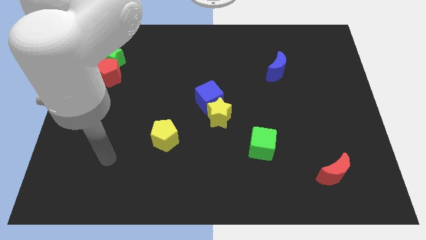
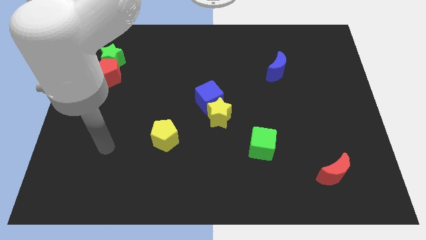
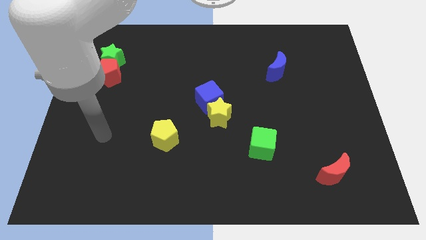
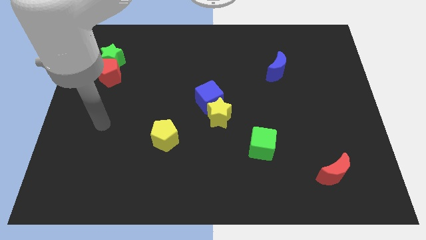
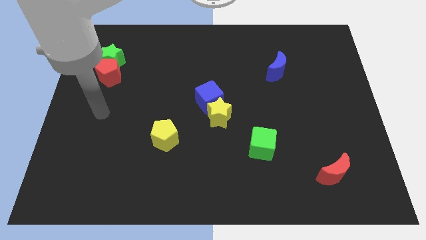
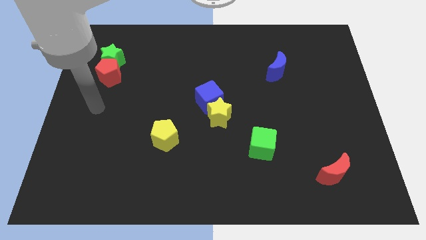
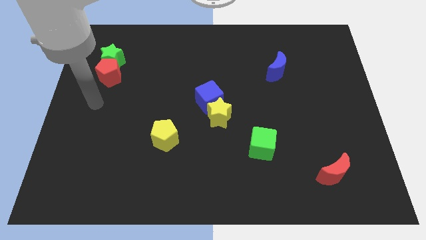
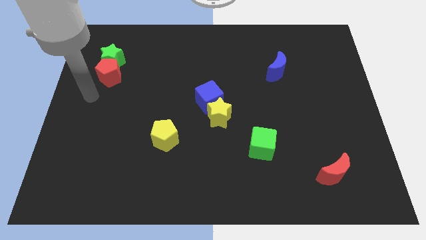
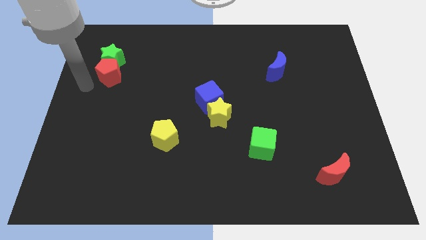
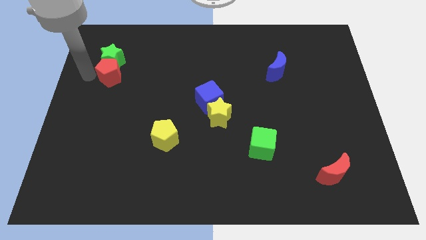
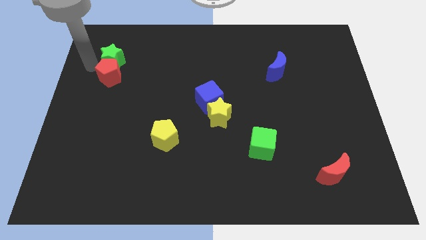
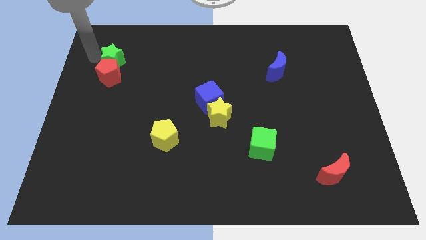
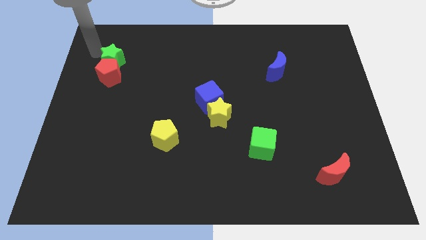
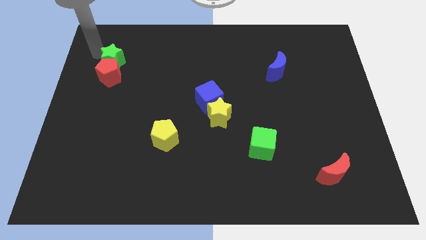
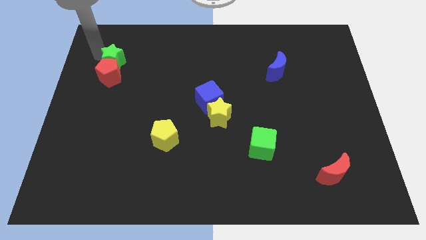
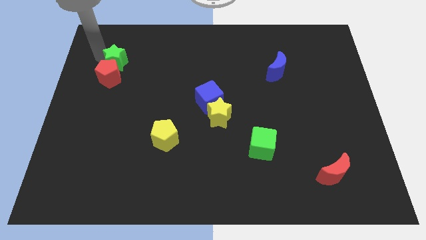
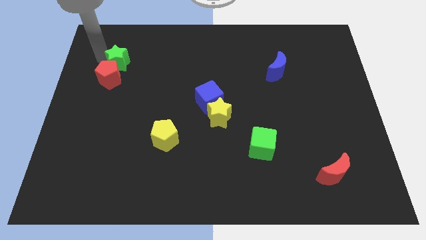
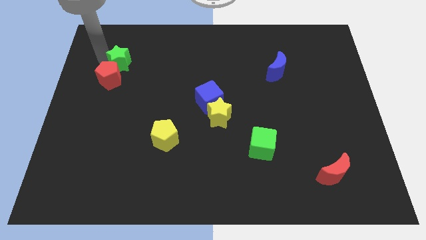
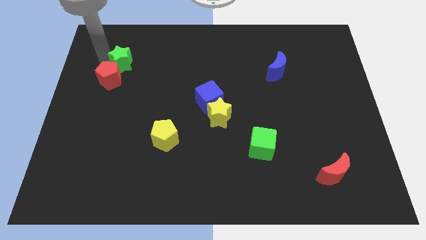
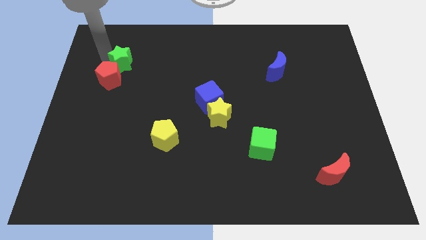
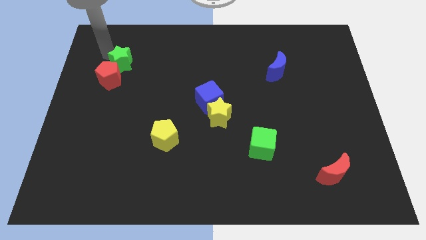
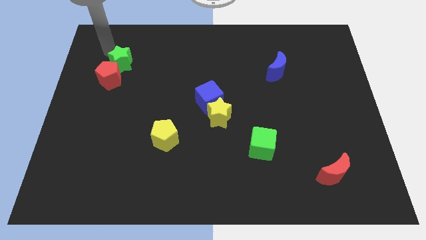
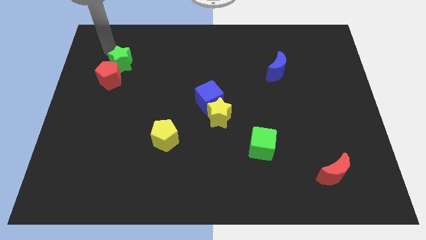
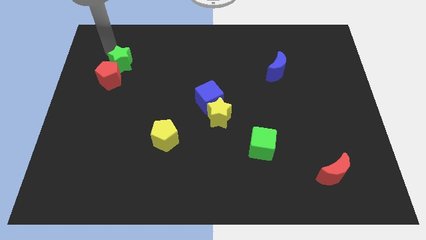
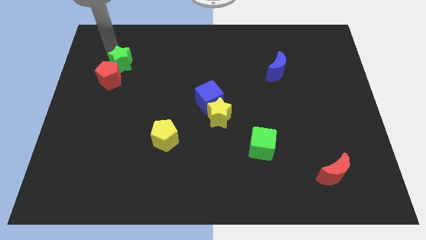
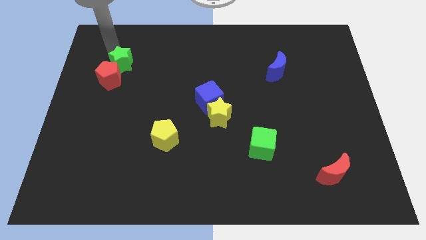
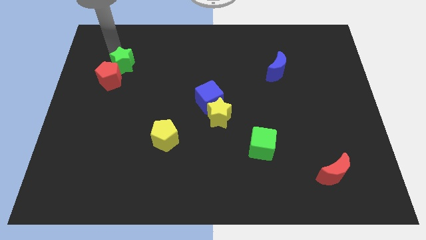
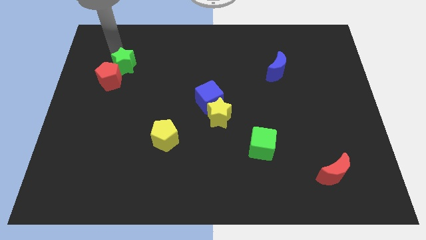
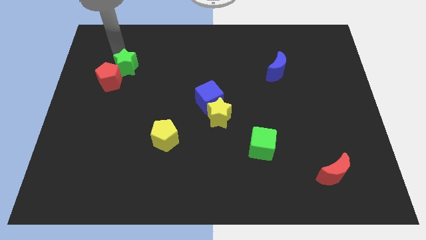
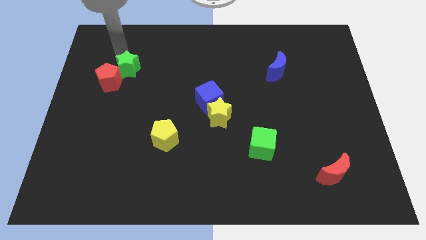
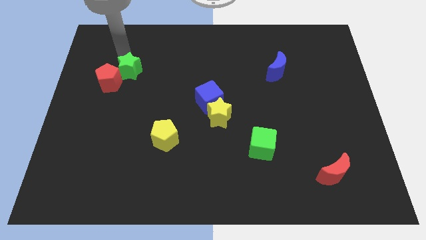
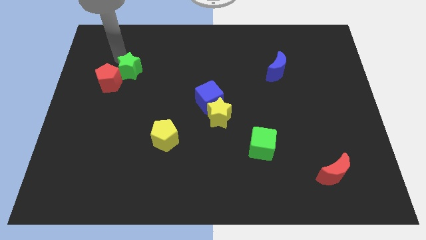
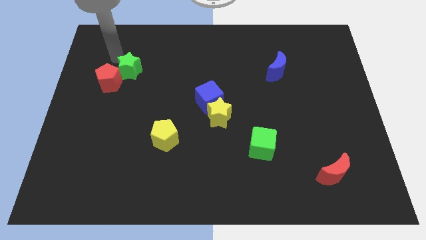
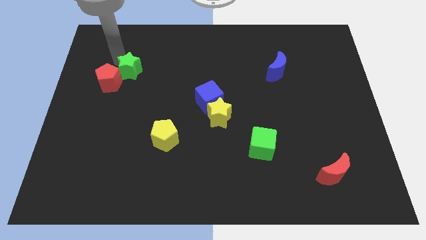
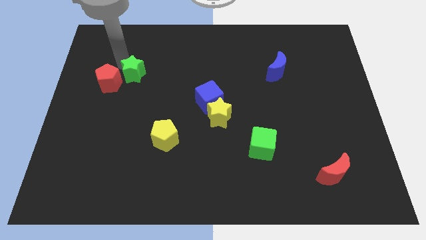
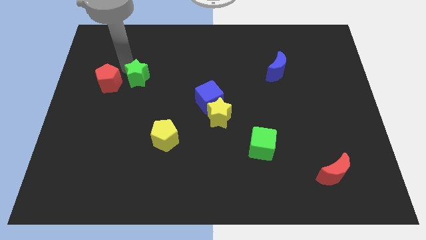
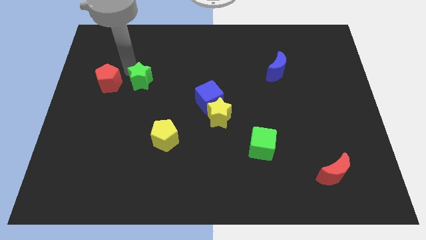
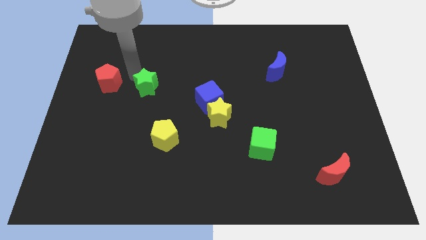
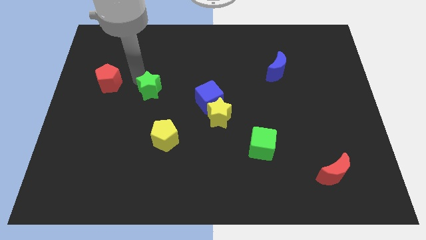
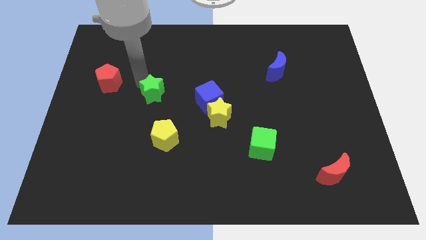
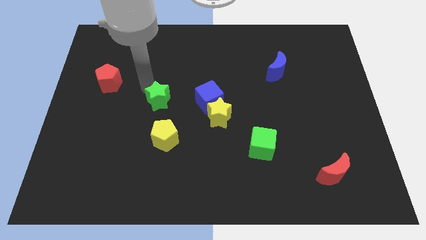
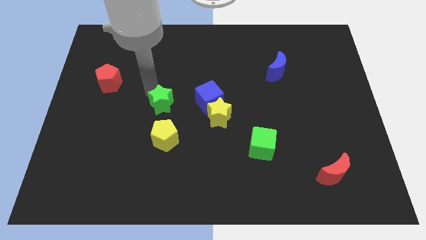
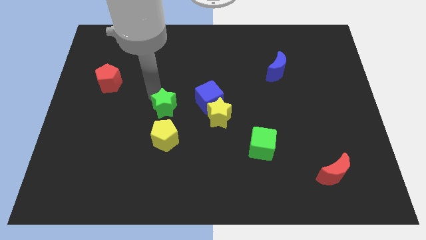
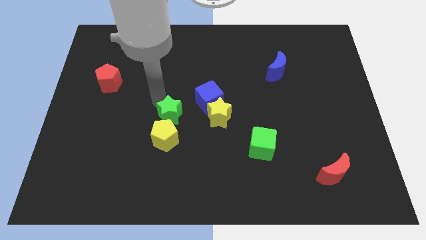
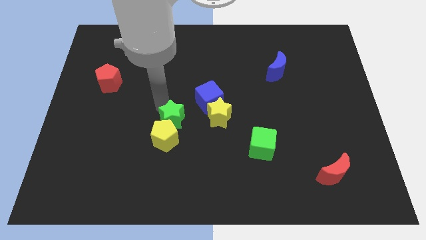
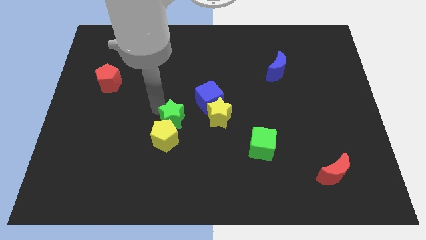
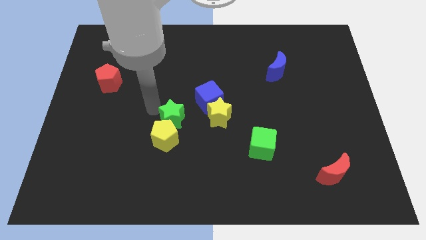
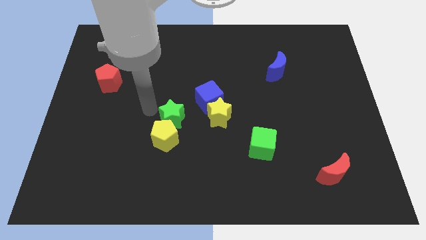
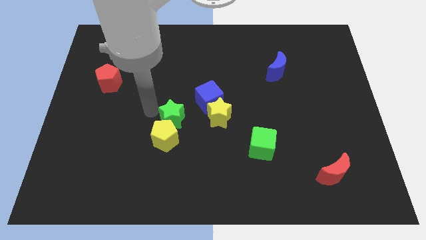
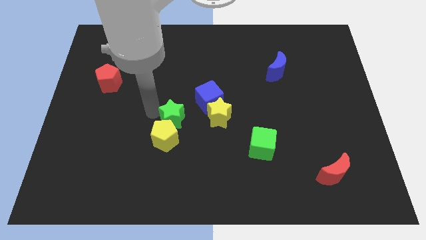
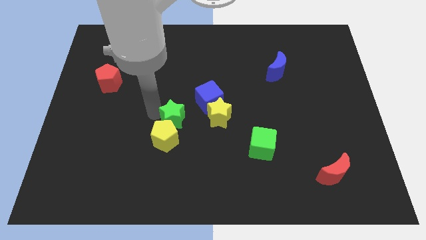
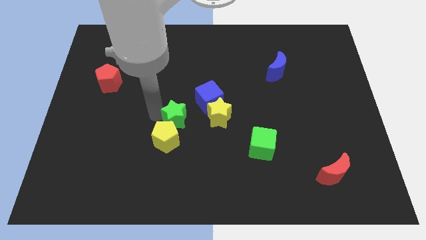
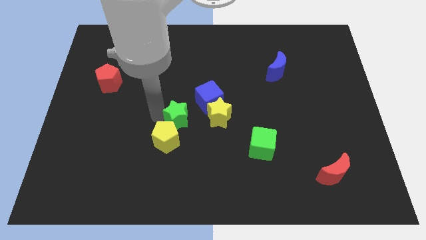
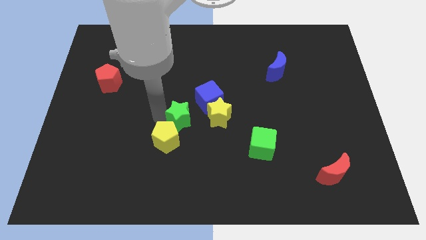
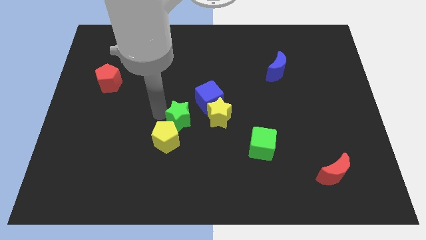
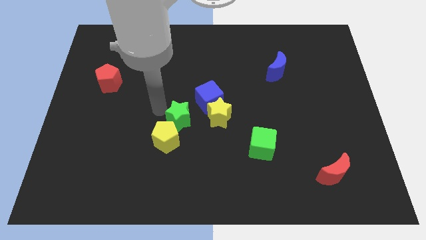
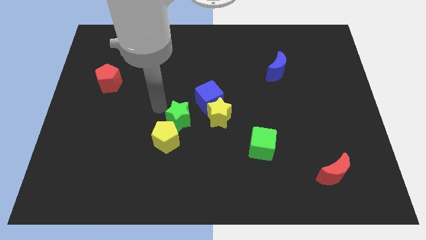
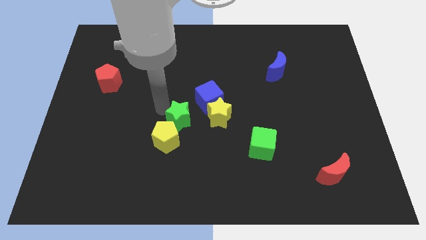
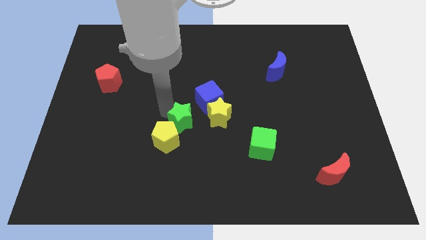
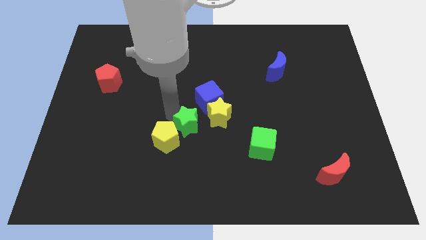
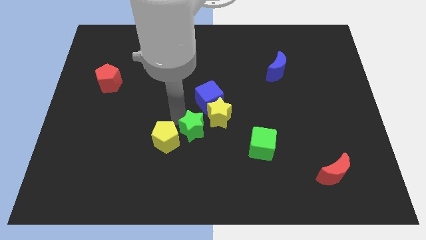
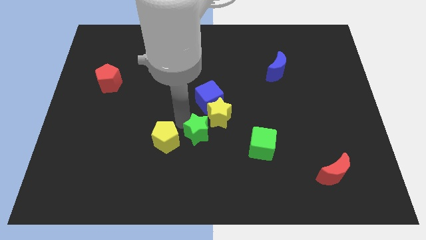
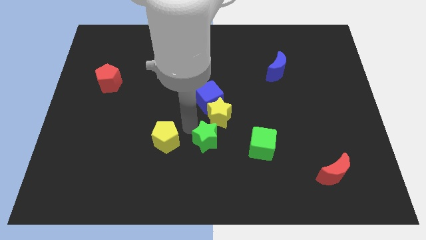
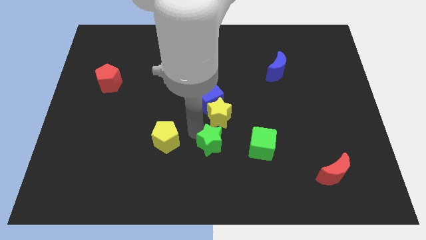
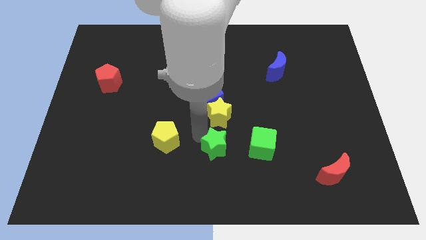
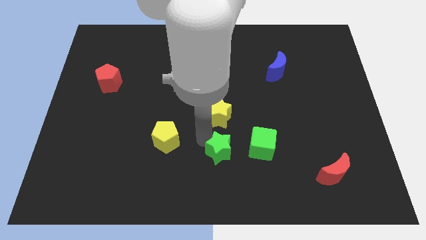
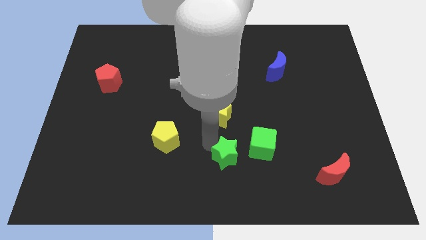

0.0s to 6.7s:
put the green star to the bottom left side of the green cube

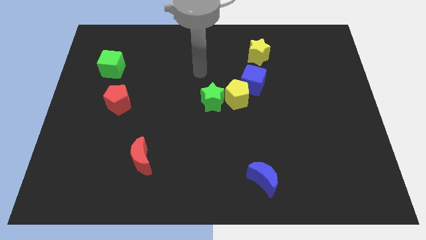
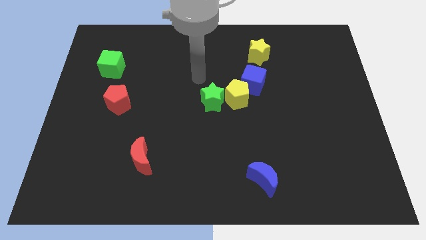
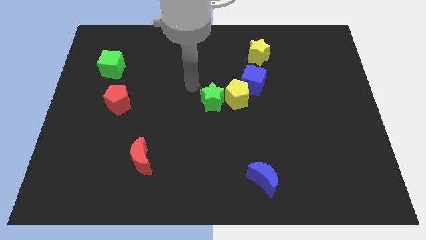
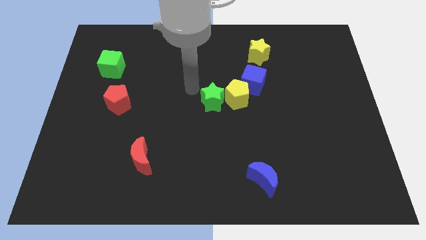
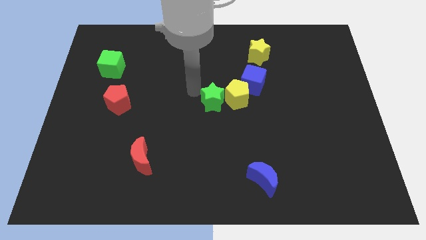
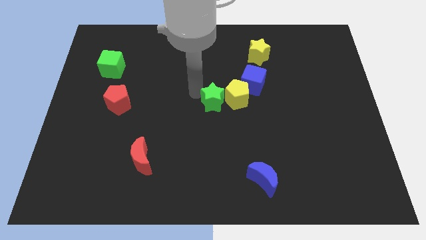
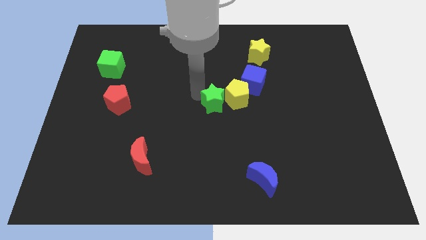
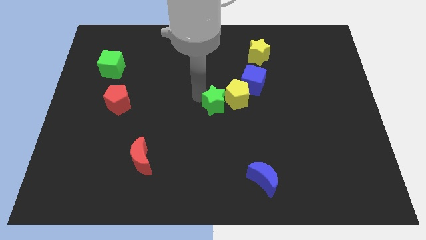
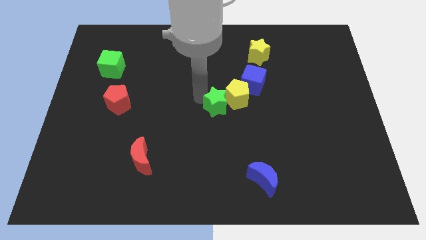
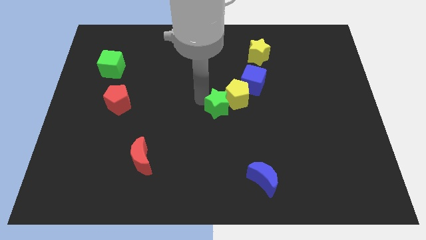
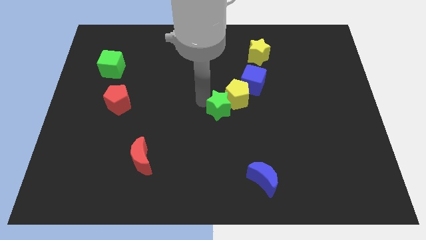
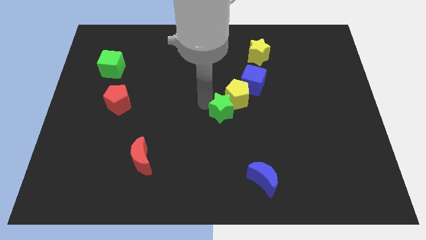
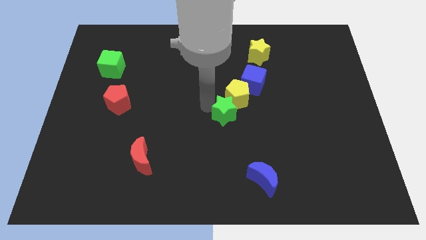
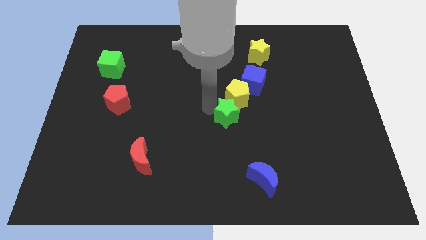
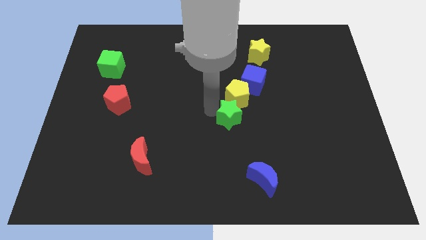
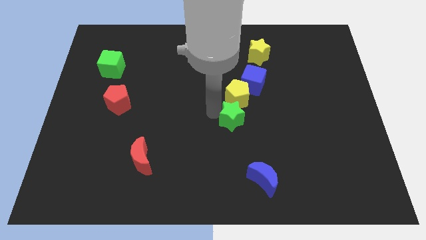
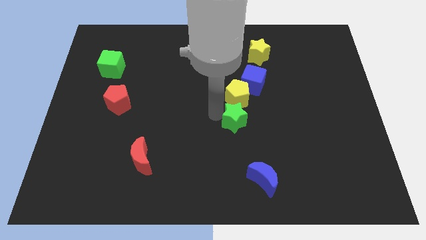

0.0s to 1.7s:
slide the green star below the blue cube
